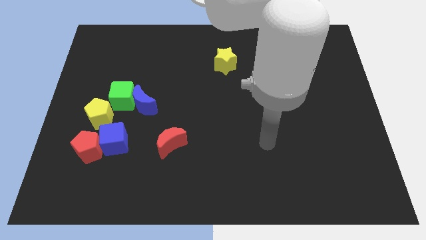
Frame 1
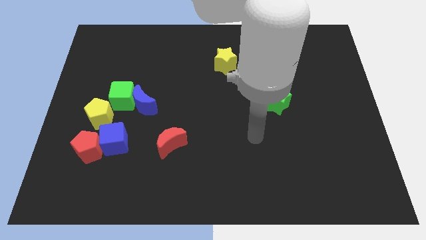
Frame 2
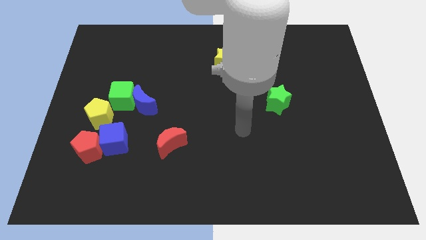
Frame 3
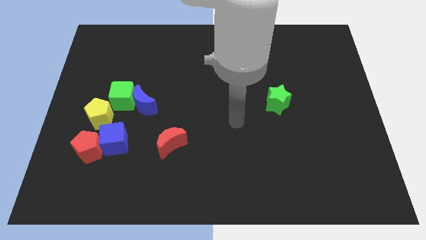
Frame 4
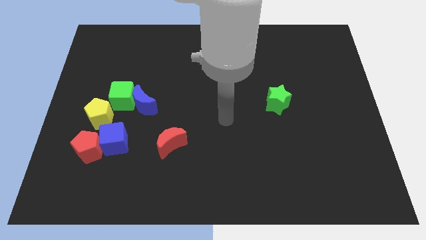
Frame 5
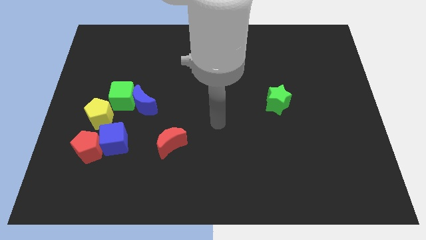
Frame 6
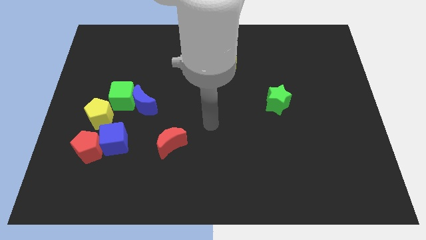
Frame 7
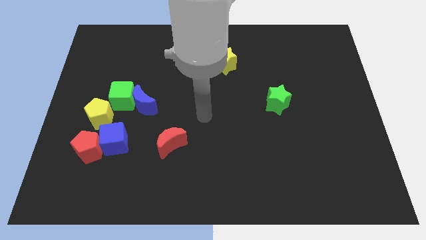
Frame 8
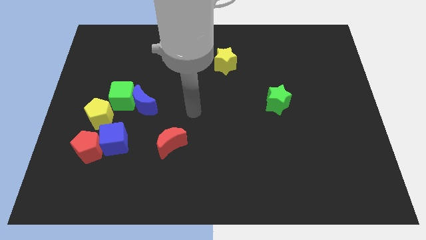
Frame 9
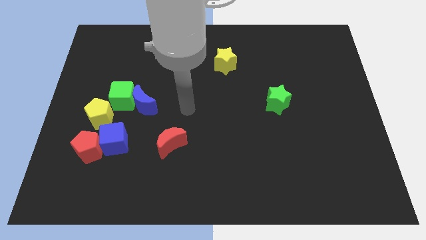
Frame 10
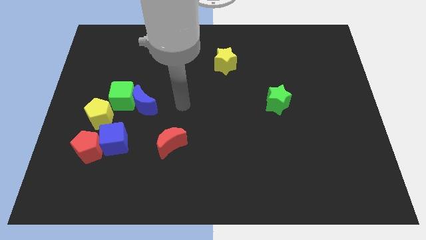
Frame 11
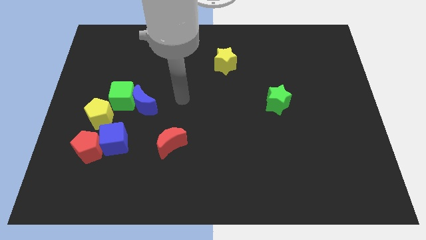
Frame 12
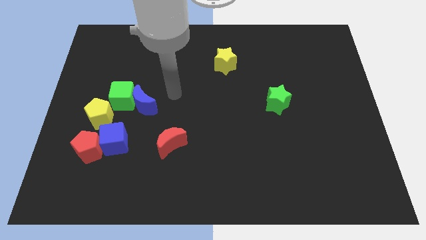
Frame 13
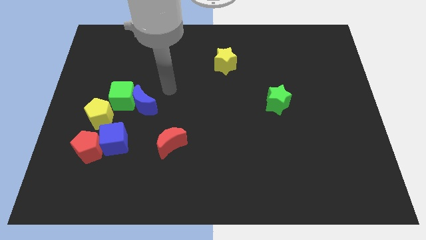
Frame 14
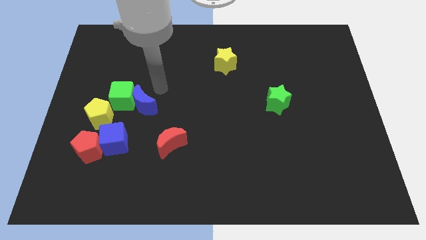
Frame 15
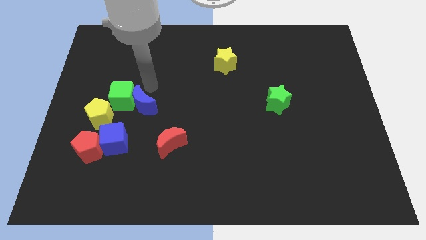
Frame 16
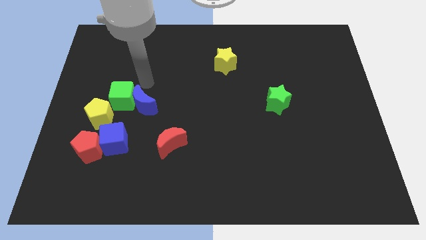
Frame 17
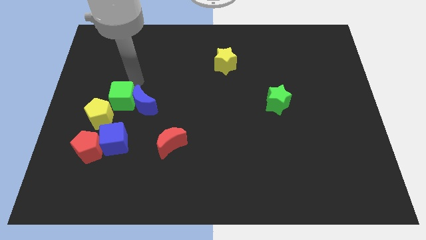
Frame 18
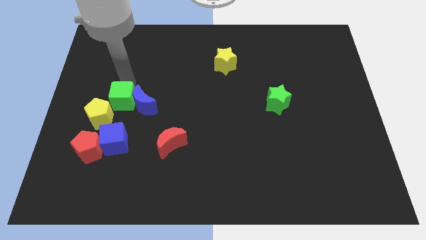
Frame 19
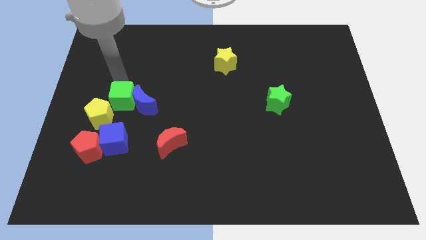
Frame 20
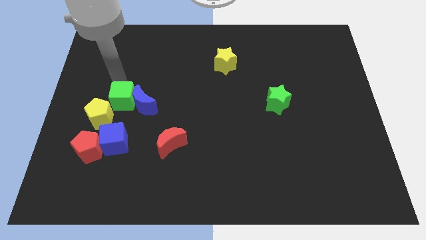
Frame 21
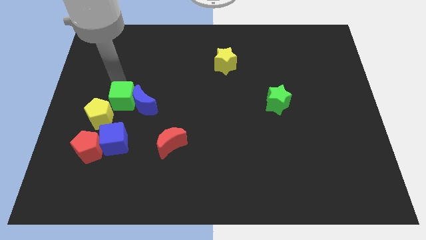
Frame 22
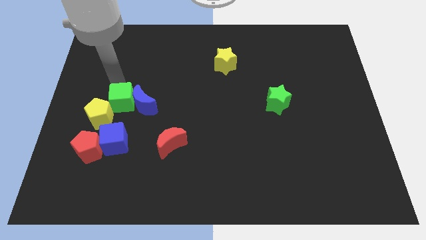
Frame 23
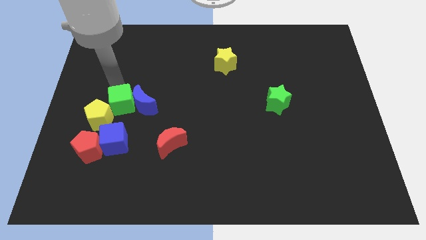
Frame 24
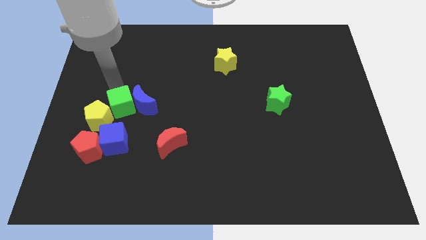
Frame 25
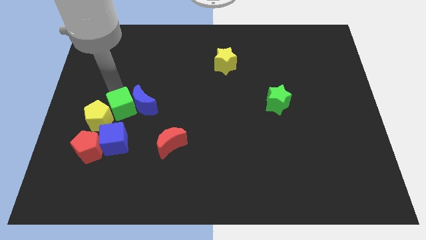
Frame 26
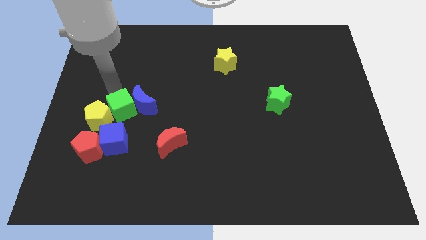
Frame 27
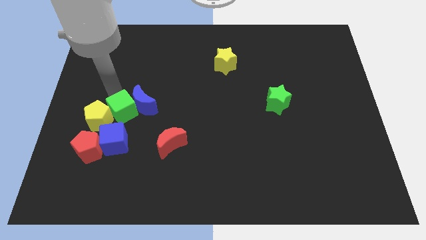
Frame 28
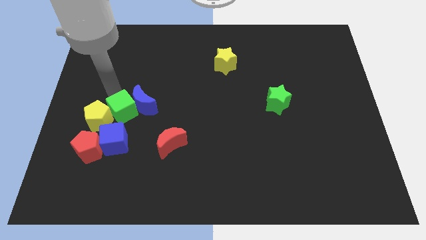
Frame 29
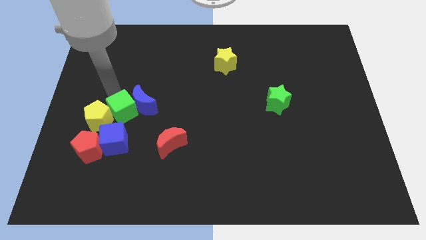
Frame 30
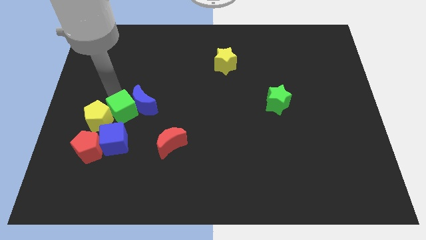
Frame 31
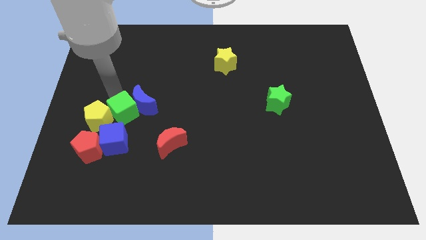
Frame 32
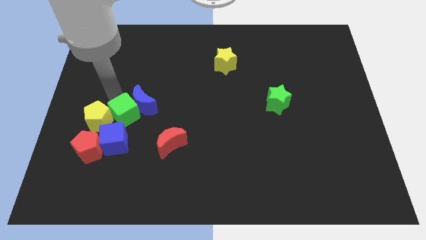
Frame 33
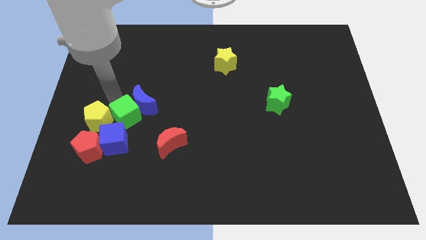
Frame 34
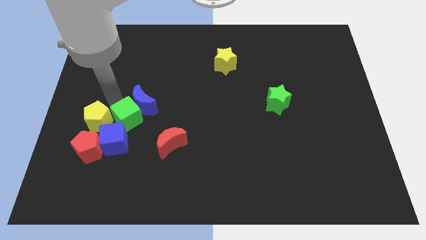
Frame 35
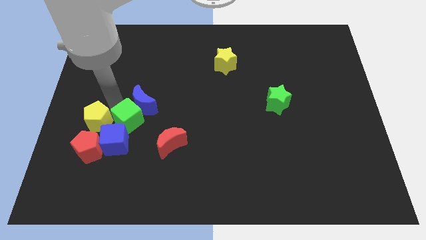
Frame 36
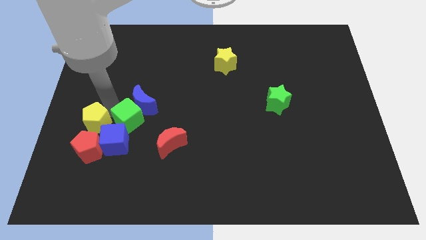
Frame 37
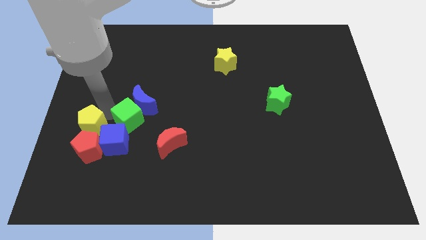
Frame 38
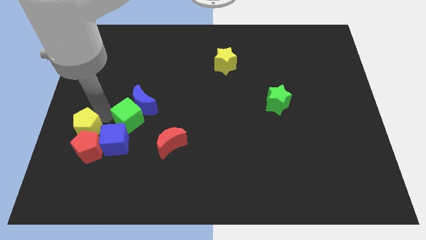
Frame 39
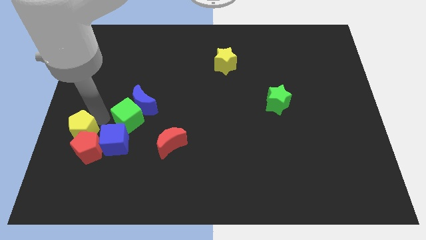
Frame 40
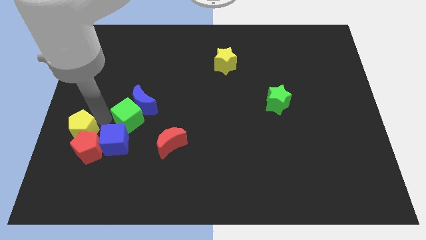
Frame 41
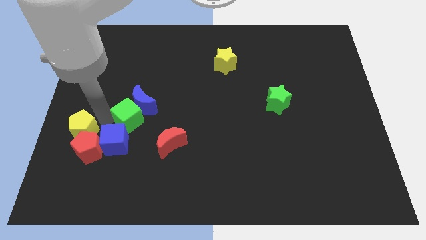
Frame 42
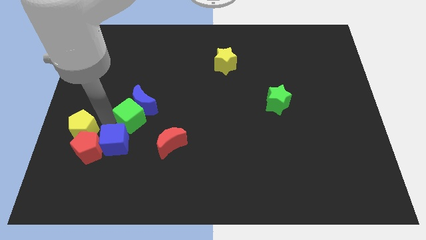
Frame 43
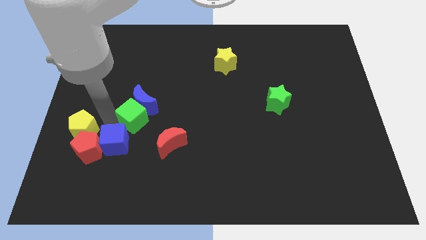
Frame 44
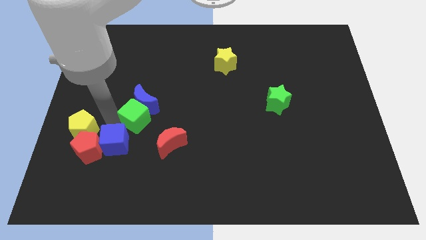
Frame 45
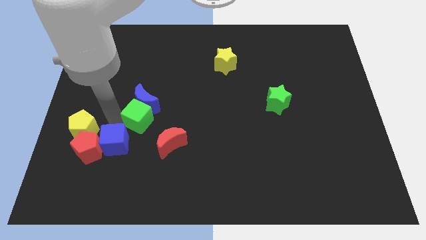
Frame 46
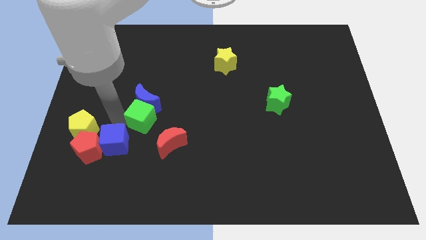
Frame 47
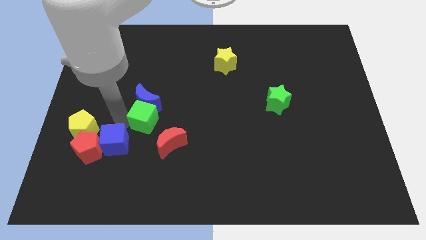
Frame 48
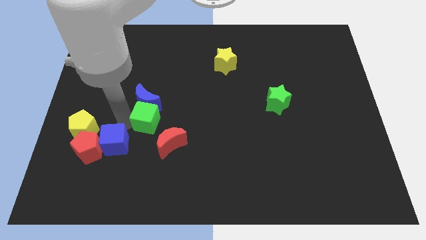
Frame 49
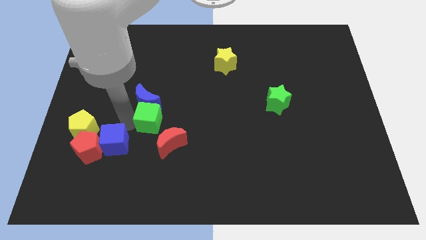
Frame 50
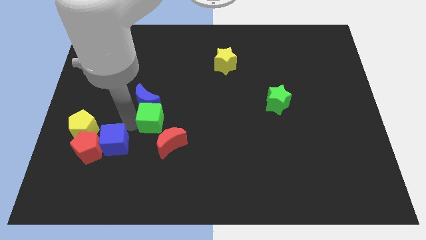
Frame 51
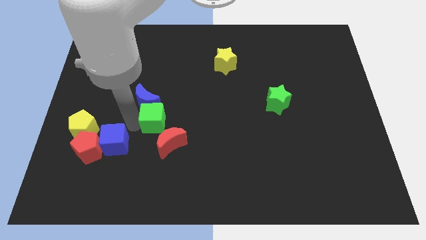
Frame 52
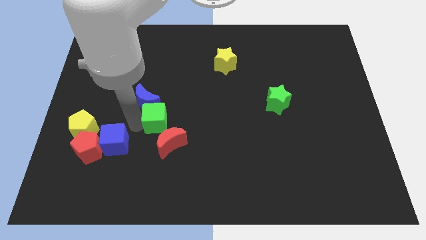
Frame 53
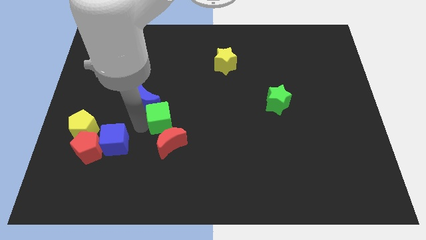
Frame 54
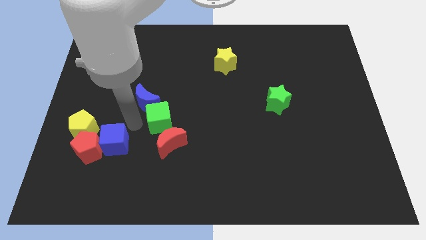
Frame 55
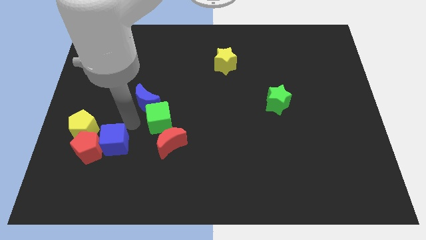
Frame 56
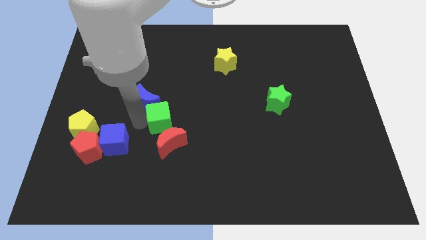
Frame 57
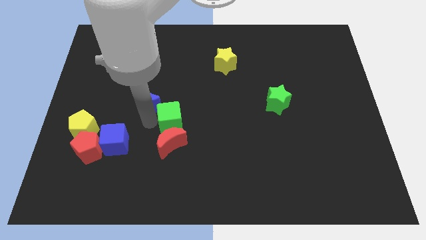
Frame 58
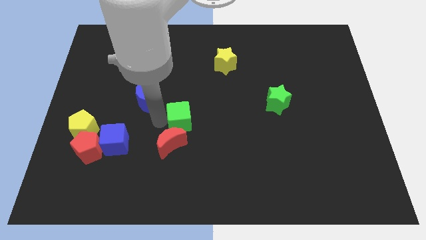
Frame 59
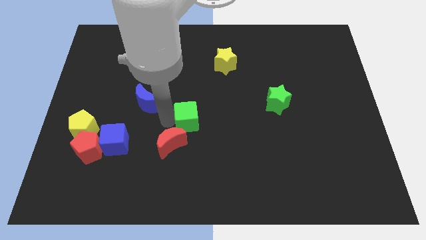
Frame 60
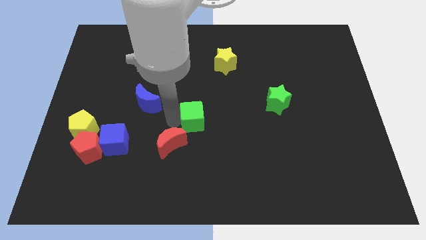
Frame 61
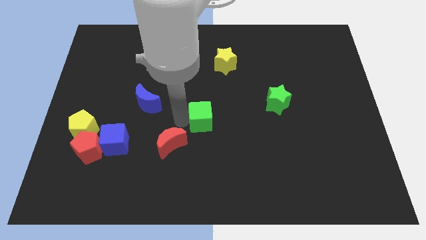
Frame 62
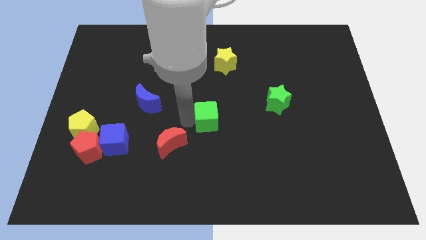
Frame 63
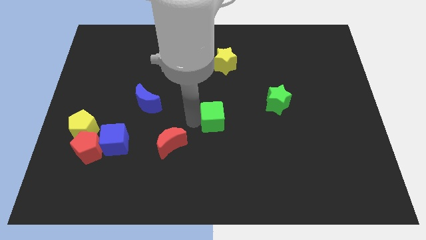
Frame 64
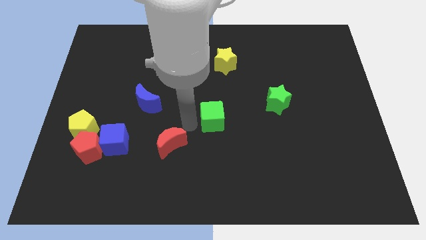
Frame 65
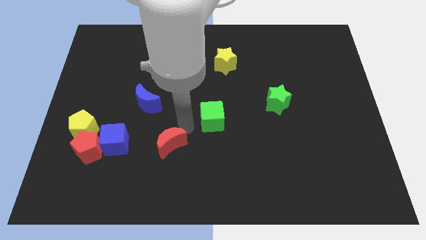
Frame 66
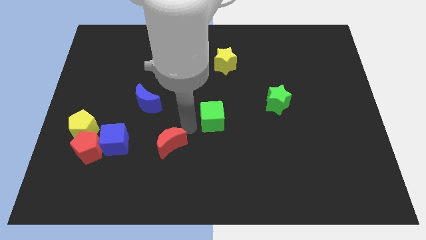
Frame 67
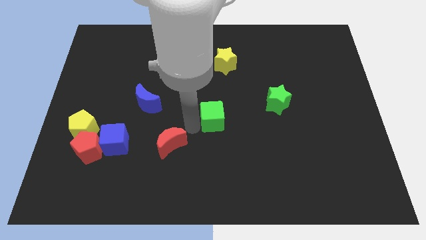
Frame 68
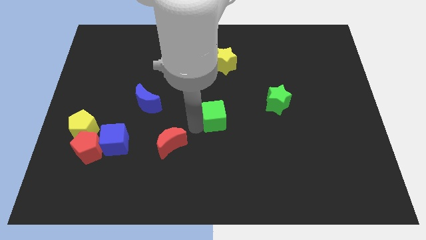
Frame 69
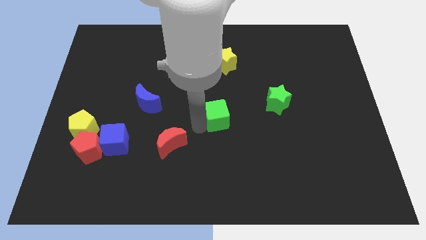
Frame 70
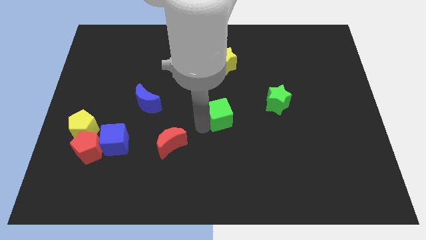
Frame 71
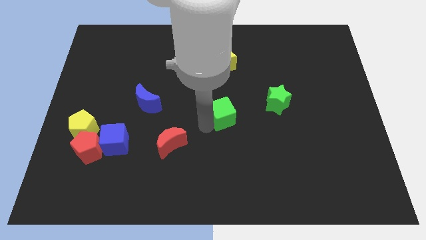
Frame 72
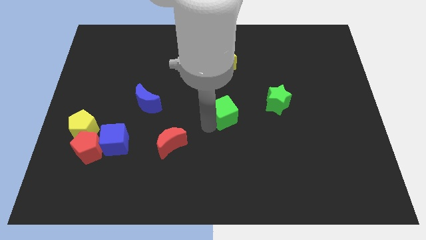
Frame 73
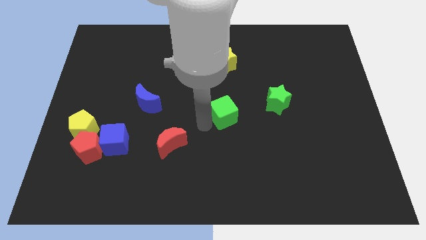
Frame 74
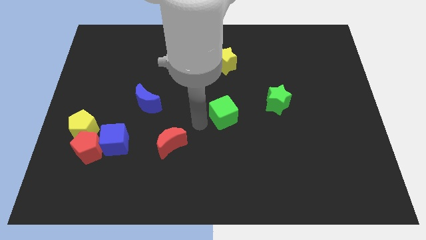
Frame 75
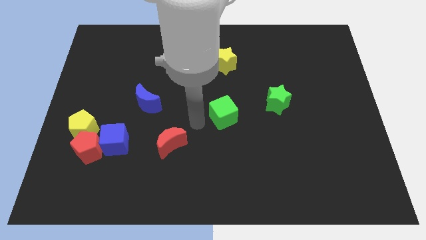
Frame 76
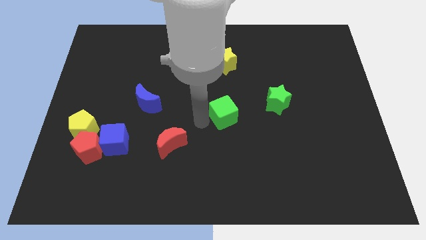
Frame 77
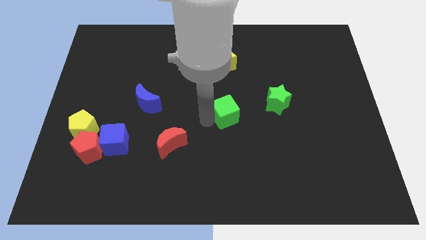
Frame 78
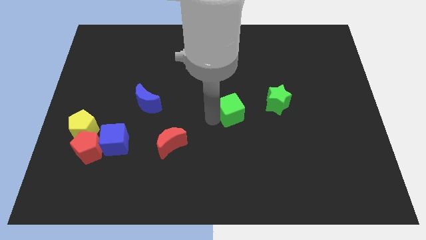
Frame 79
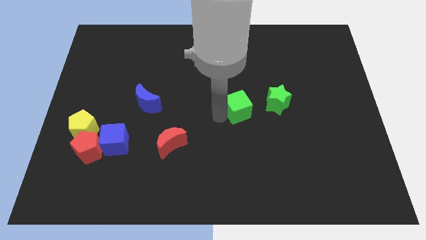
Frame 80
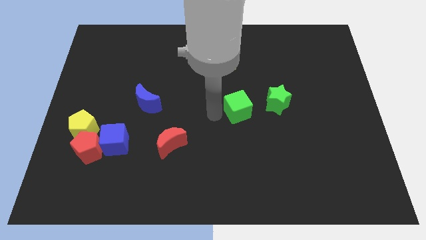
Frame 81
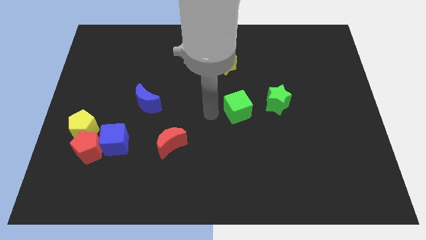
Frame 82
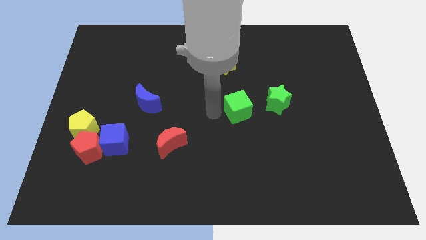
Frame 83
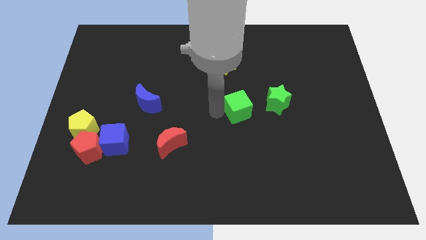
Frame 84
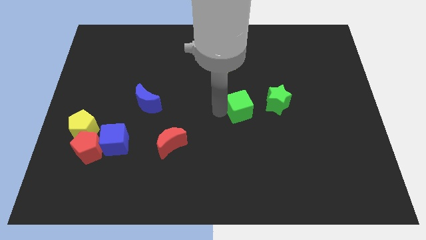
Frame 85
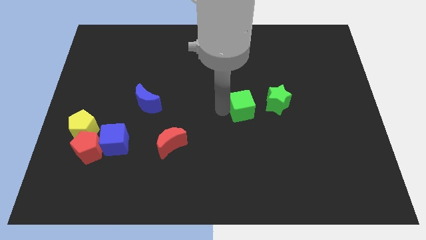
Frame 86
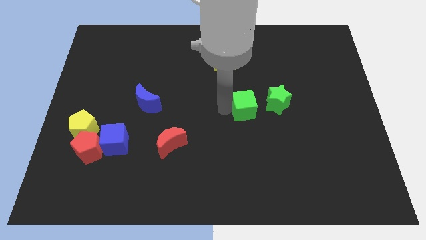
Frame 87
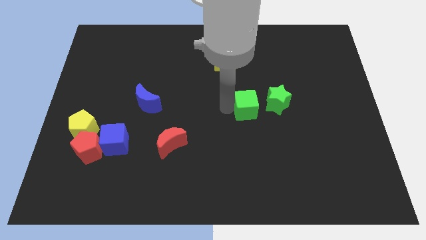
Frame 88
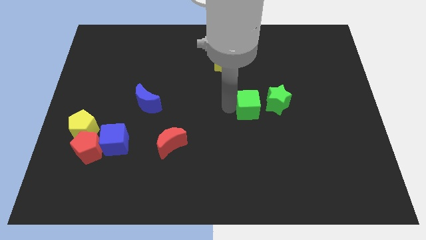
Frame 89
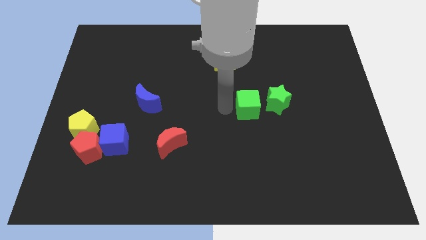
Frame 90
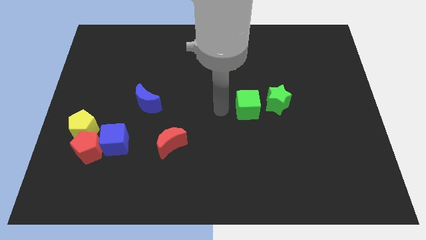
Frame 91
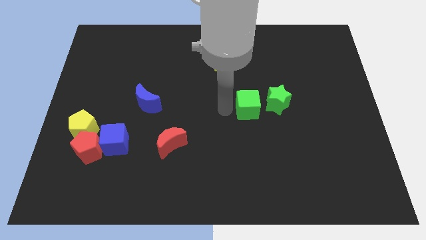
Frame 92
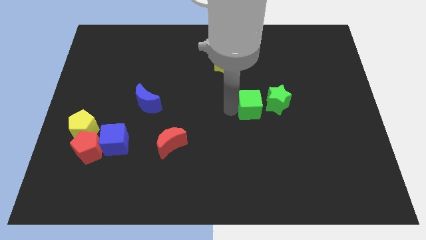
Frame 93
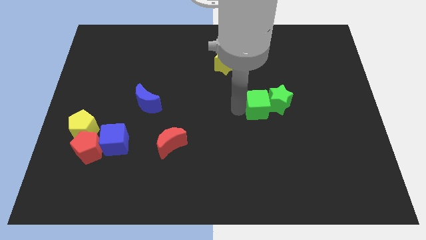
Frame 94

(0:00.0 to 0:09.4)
move the green cube to the green star
